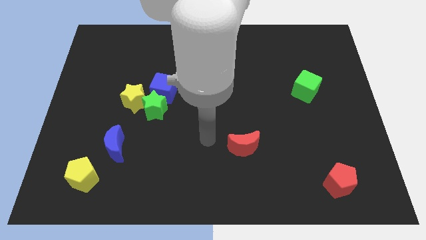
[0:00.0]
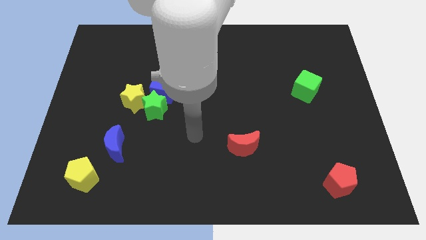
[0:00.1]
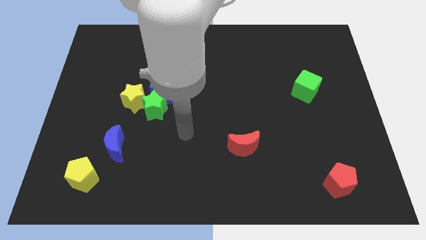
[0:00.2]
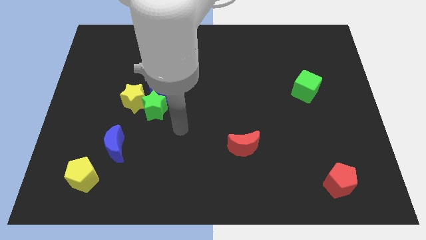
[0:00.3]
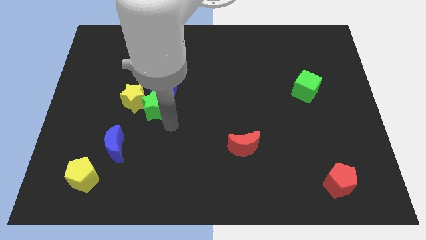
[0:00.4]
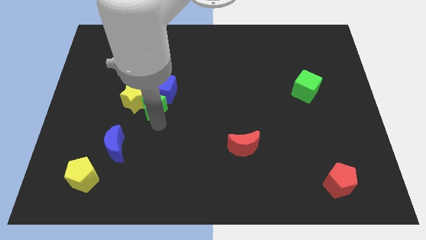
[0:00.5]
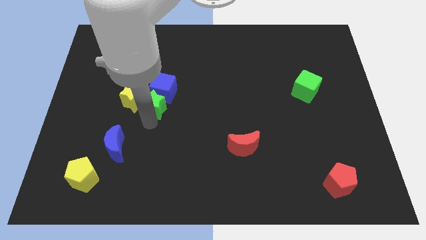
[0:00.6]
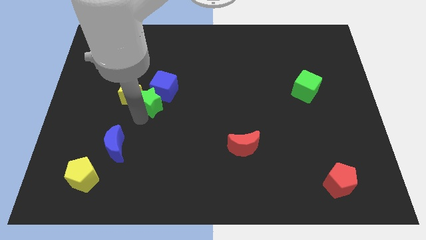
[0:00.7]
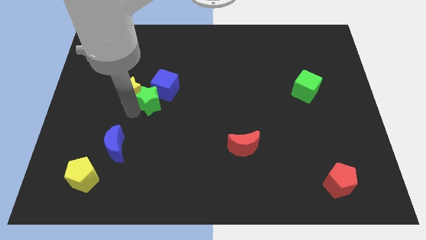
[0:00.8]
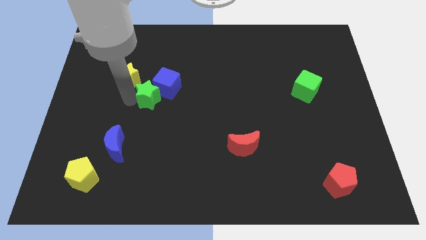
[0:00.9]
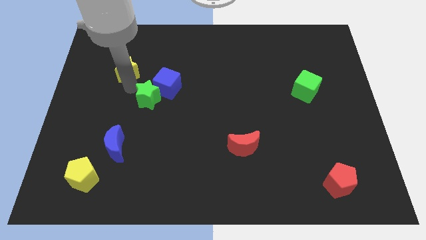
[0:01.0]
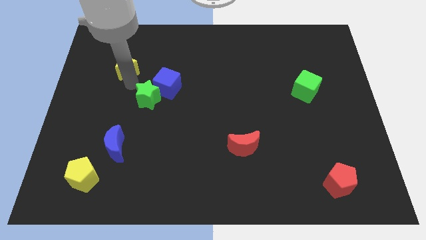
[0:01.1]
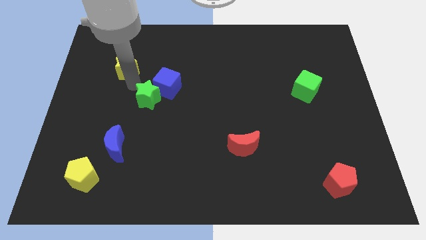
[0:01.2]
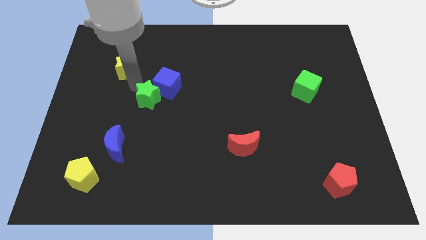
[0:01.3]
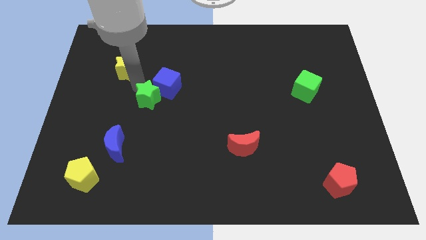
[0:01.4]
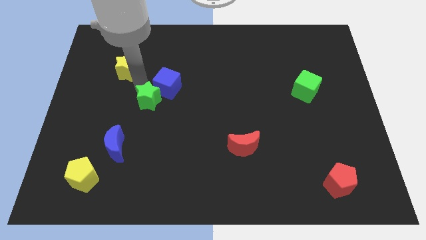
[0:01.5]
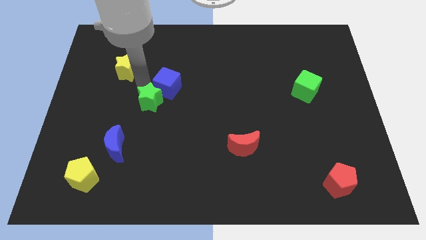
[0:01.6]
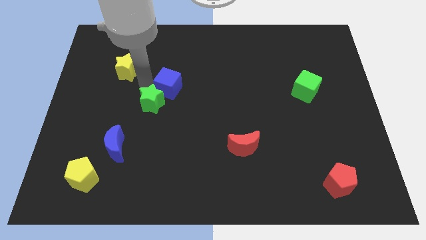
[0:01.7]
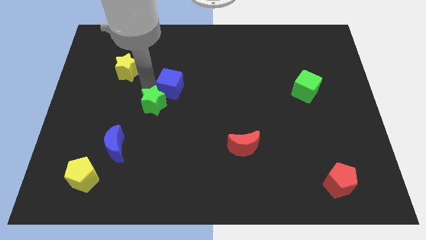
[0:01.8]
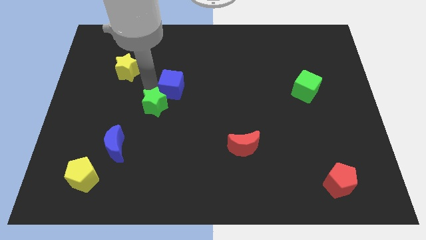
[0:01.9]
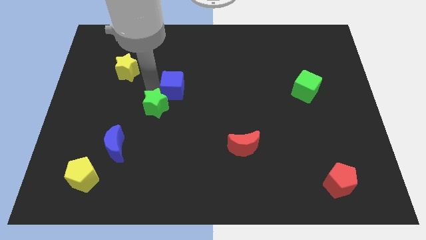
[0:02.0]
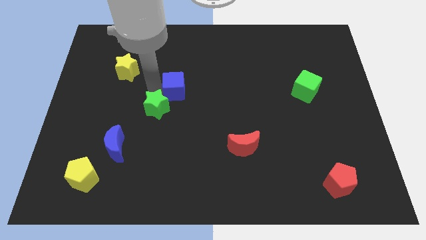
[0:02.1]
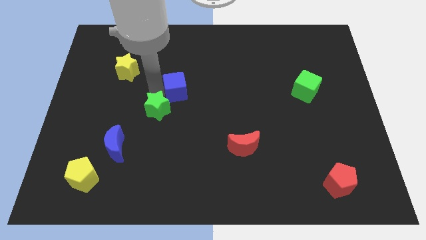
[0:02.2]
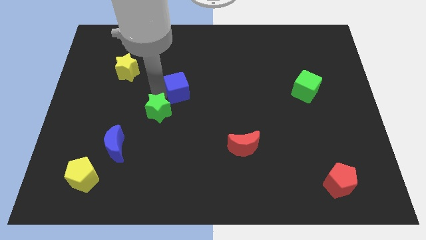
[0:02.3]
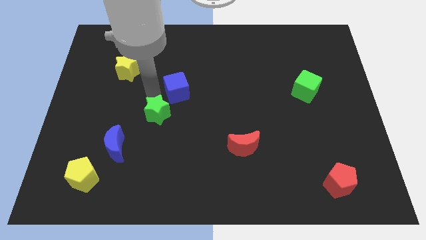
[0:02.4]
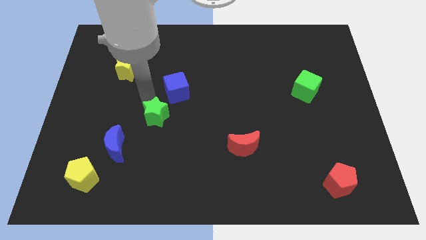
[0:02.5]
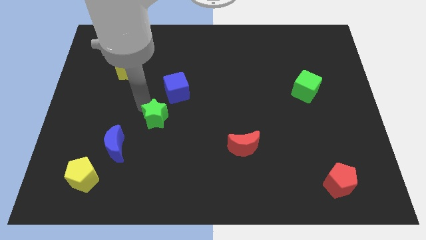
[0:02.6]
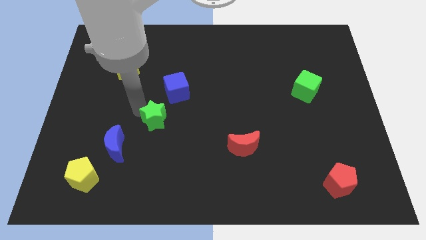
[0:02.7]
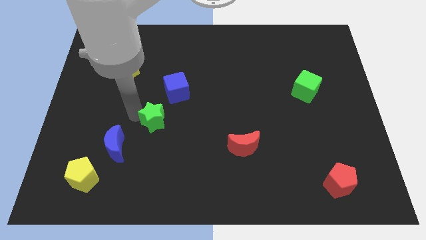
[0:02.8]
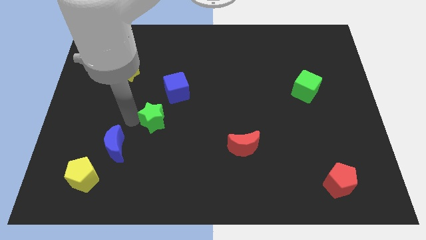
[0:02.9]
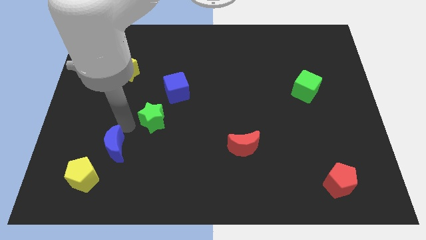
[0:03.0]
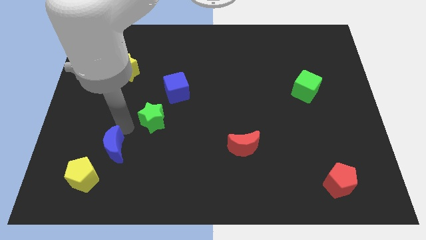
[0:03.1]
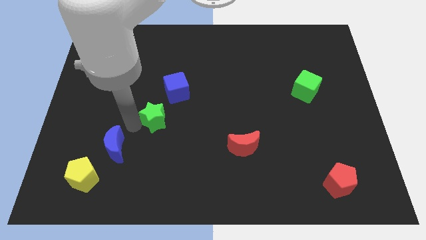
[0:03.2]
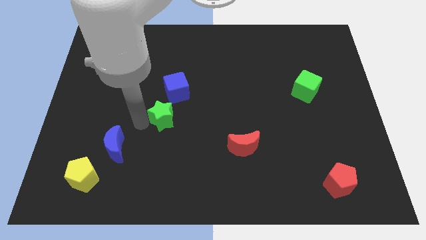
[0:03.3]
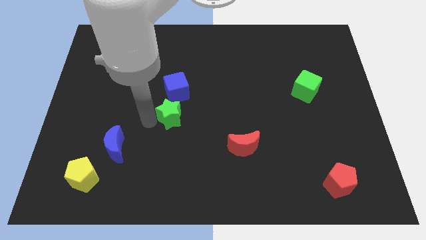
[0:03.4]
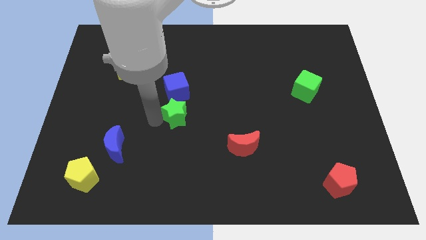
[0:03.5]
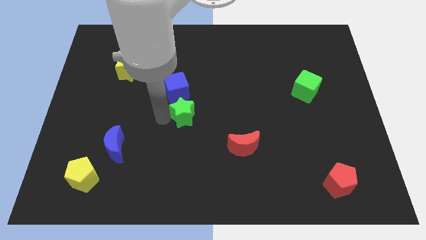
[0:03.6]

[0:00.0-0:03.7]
slide the green star somewhat right

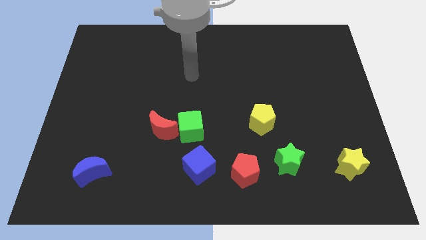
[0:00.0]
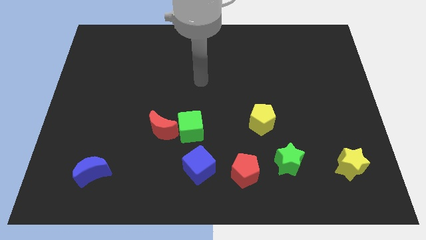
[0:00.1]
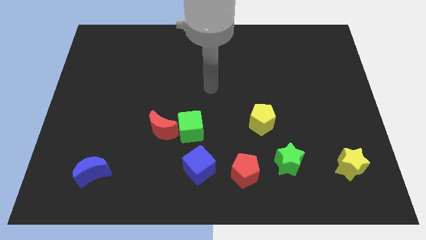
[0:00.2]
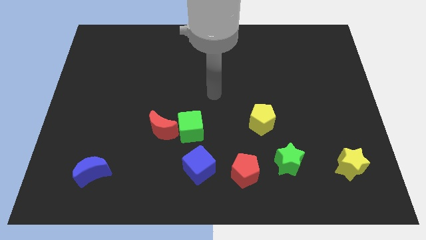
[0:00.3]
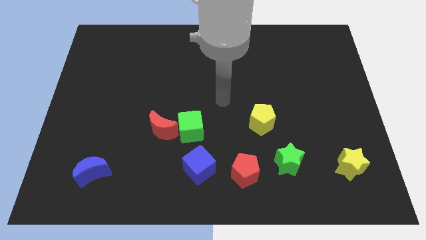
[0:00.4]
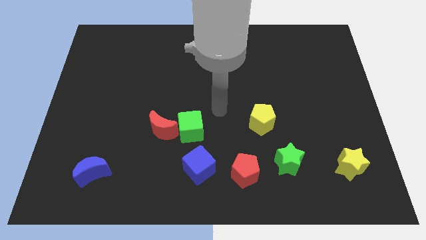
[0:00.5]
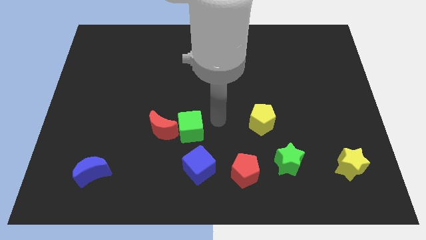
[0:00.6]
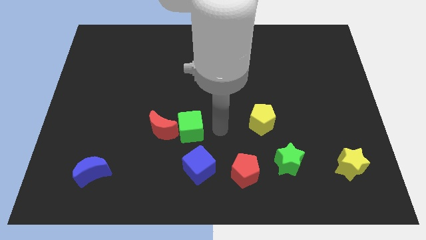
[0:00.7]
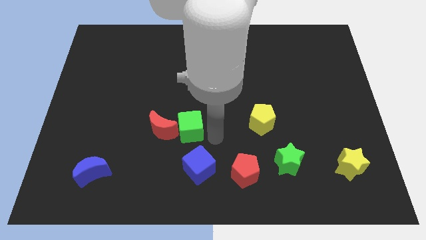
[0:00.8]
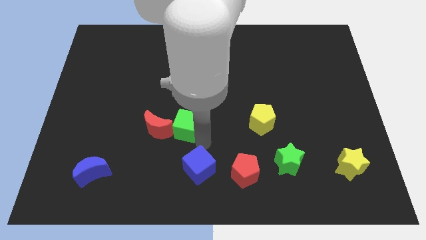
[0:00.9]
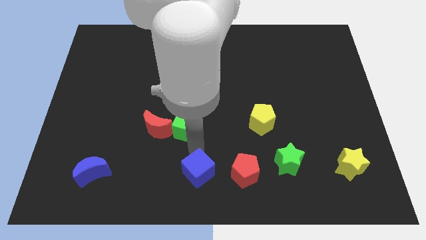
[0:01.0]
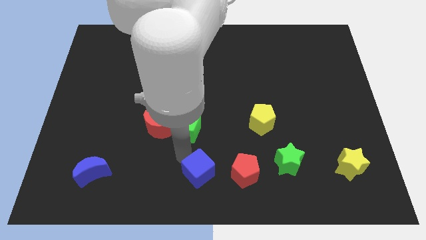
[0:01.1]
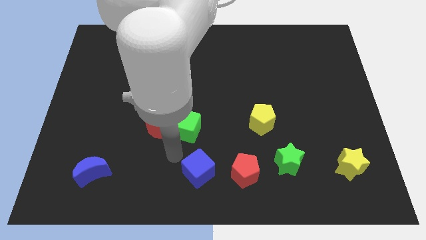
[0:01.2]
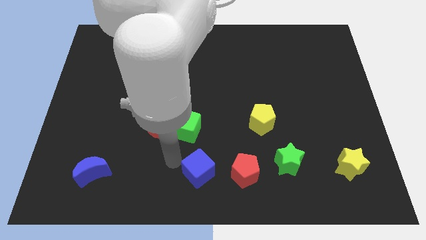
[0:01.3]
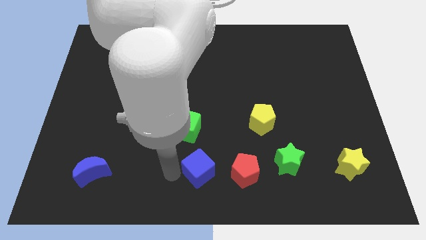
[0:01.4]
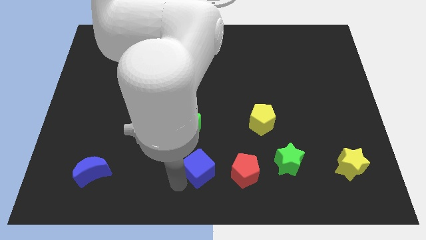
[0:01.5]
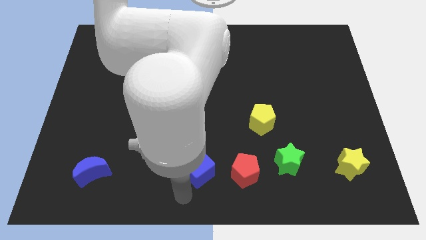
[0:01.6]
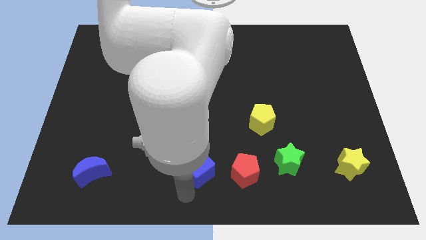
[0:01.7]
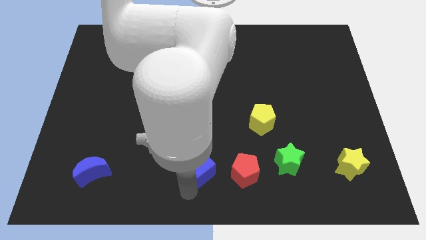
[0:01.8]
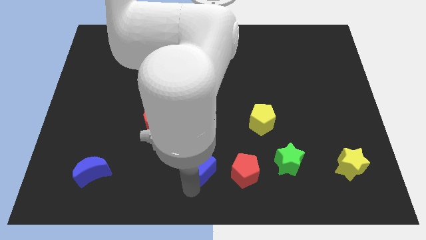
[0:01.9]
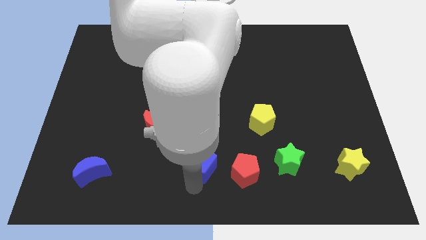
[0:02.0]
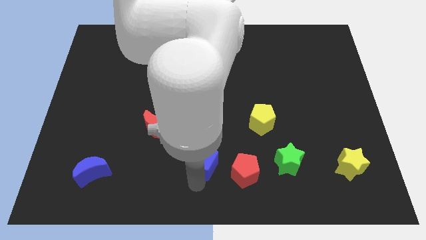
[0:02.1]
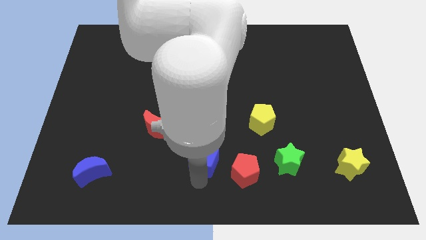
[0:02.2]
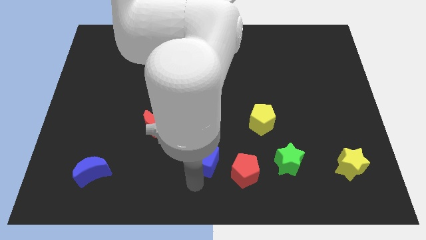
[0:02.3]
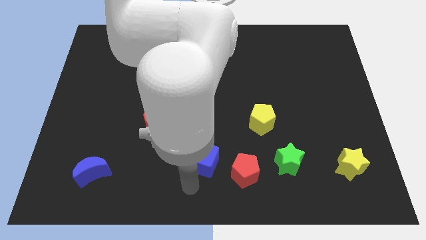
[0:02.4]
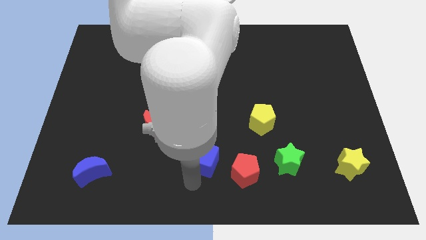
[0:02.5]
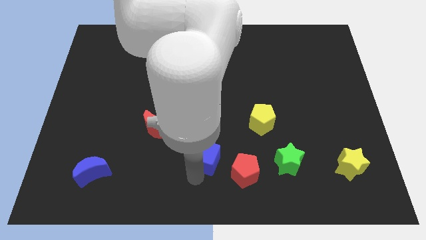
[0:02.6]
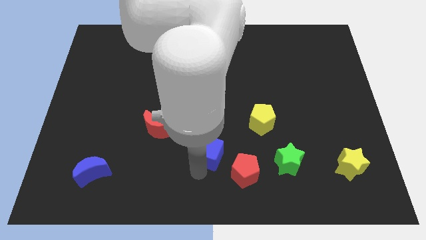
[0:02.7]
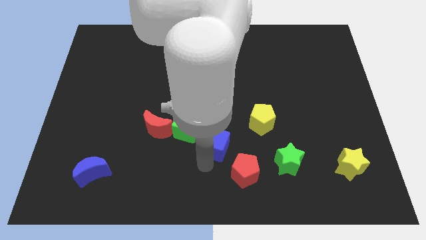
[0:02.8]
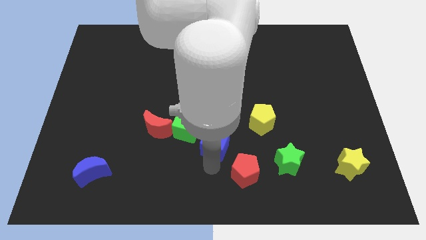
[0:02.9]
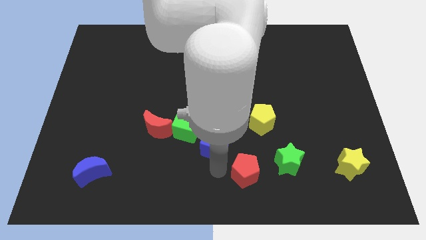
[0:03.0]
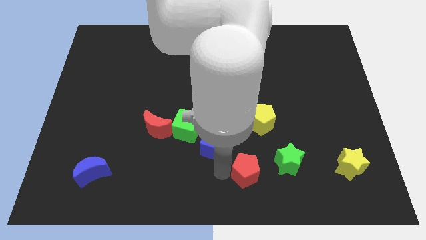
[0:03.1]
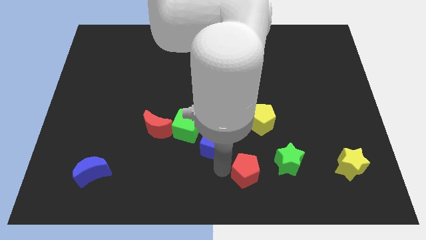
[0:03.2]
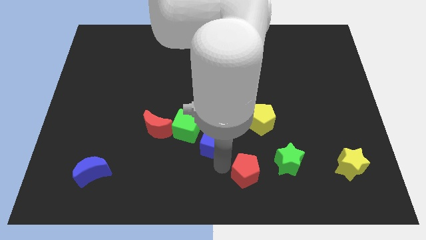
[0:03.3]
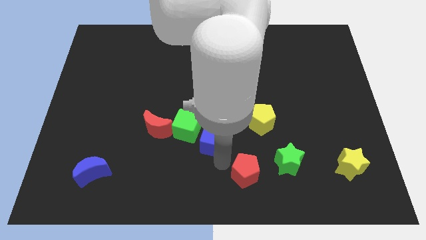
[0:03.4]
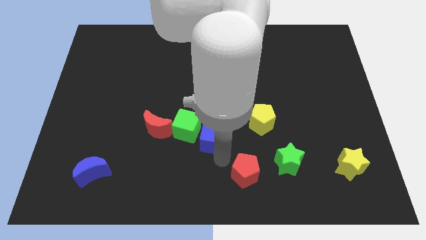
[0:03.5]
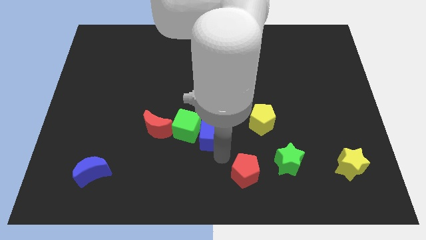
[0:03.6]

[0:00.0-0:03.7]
slightly push the blue cube upwards

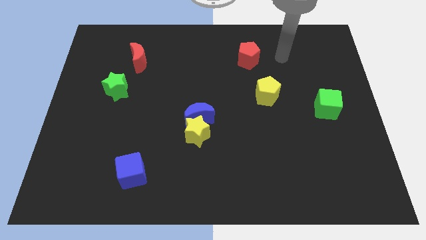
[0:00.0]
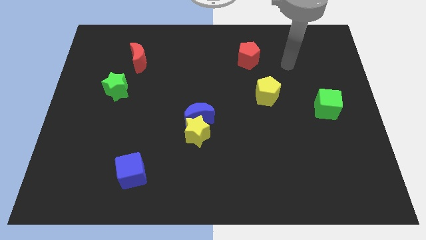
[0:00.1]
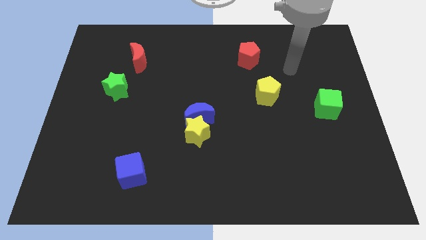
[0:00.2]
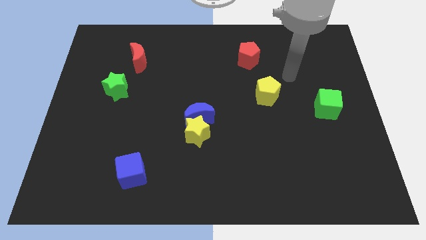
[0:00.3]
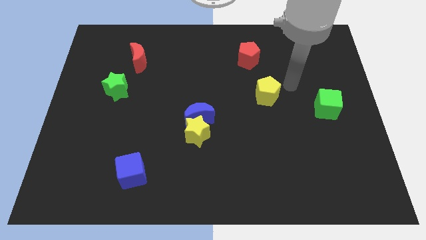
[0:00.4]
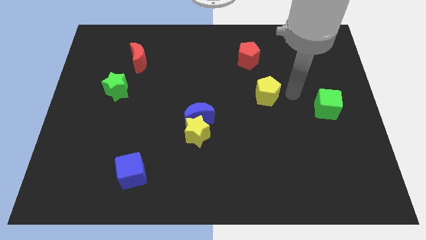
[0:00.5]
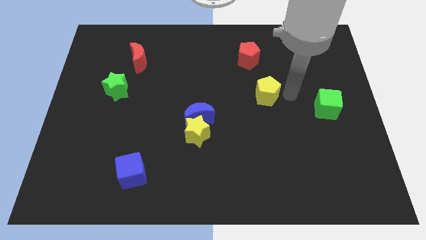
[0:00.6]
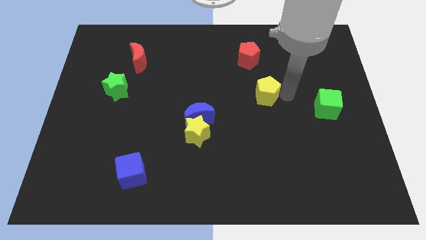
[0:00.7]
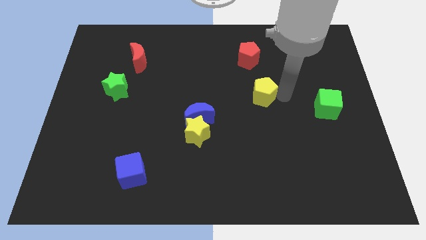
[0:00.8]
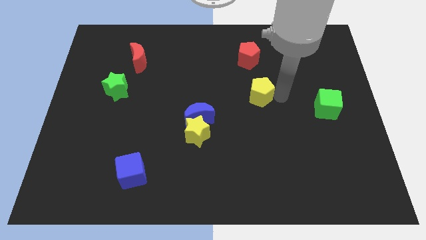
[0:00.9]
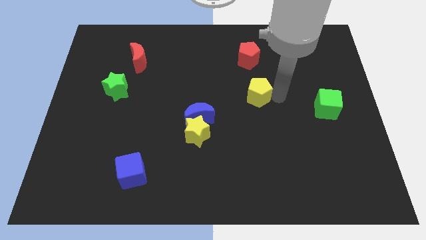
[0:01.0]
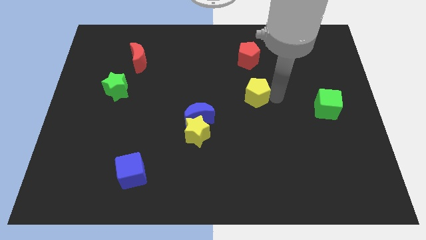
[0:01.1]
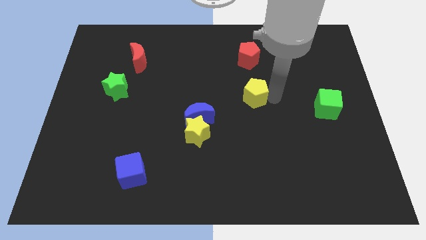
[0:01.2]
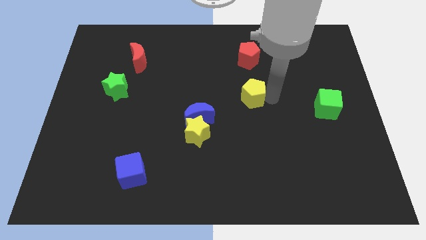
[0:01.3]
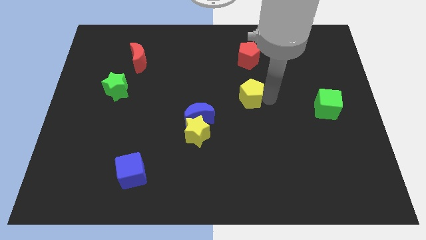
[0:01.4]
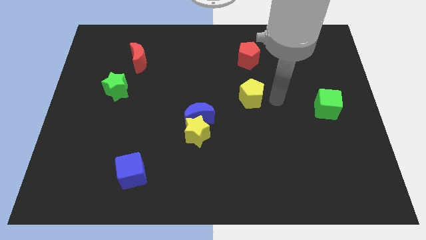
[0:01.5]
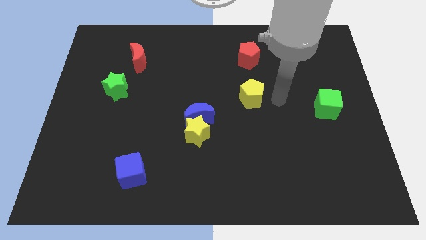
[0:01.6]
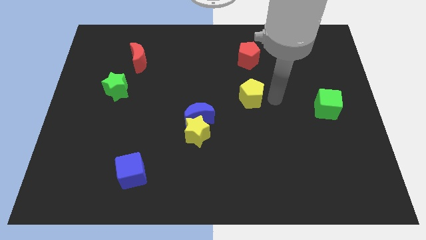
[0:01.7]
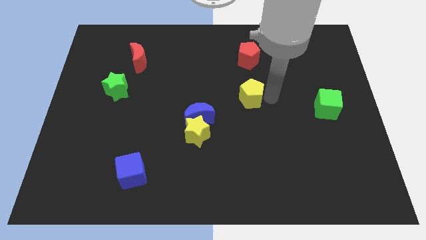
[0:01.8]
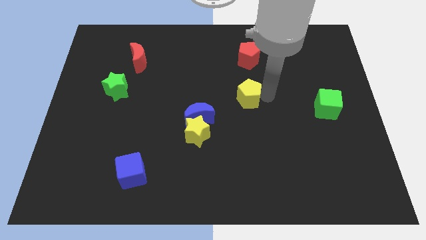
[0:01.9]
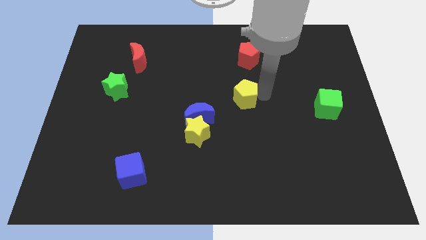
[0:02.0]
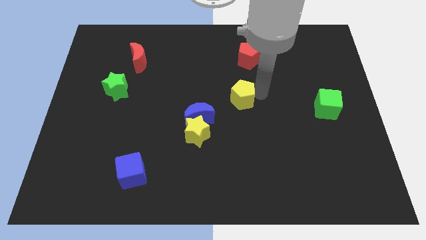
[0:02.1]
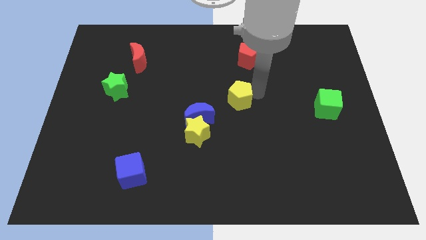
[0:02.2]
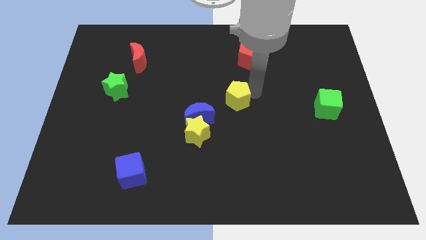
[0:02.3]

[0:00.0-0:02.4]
slightly move the yellow pentagon to the left
